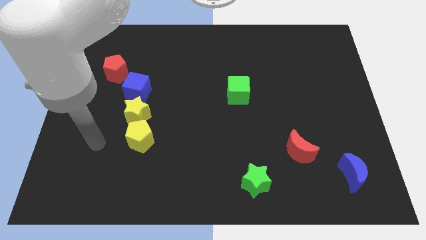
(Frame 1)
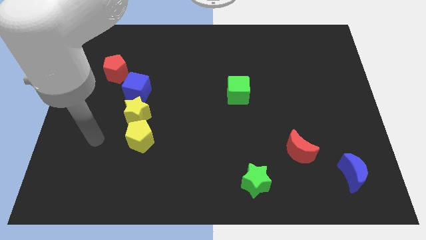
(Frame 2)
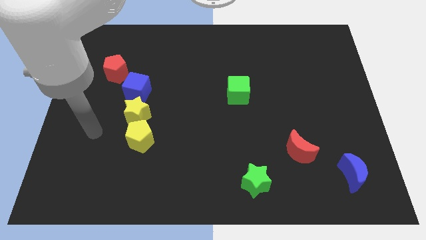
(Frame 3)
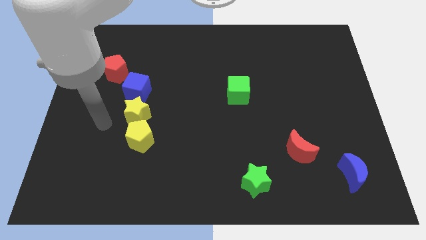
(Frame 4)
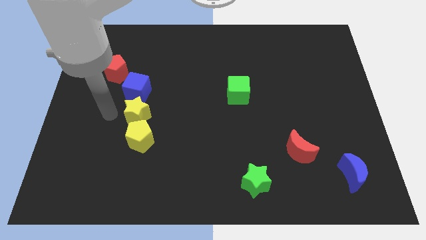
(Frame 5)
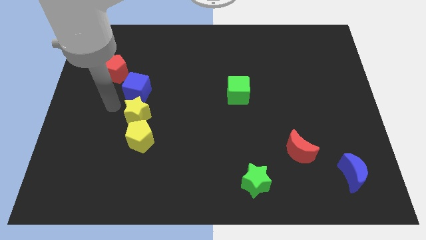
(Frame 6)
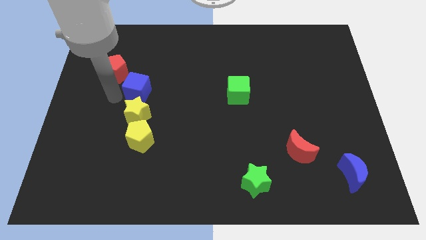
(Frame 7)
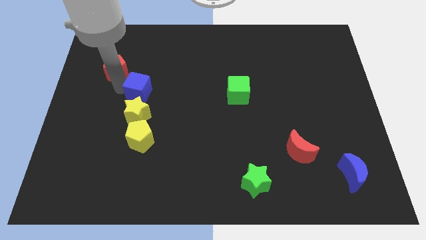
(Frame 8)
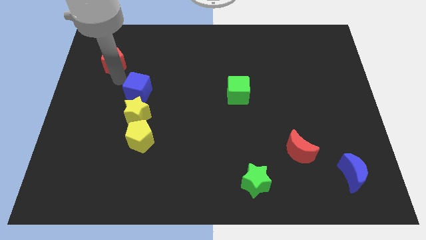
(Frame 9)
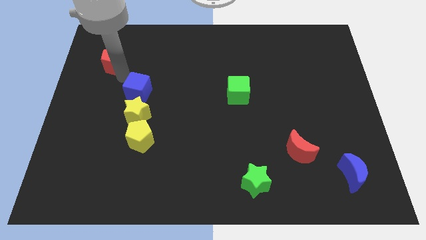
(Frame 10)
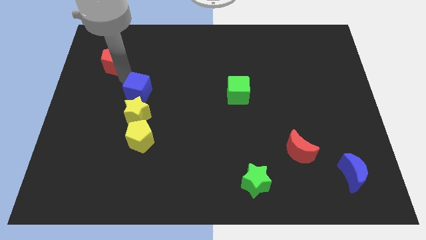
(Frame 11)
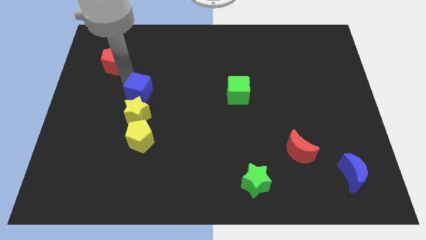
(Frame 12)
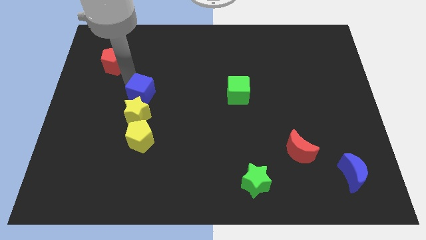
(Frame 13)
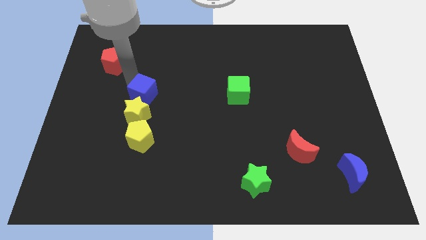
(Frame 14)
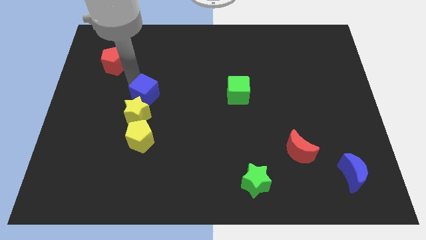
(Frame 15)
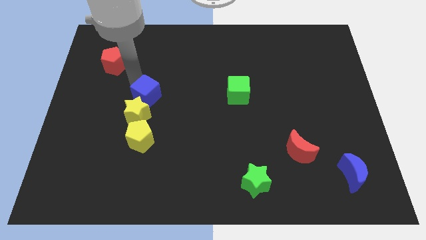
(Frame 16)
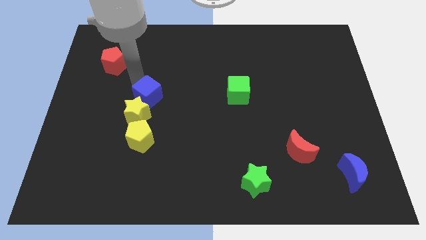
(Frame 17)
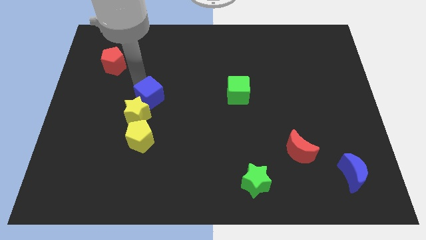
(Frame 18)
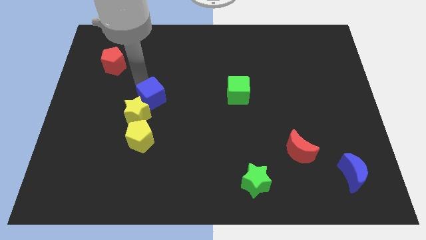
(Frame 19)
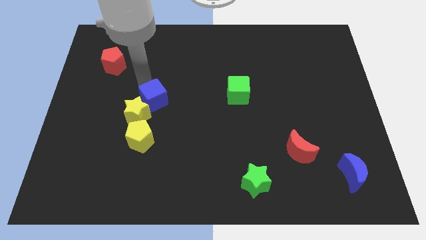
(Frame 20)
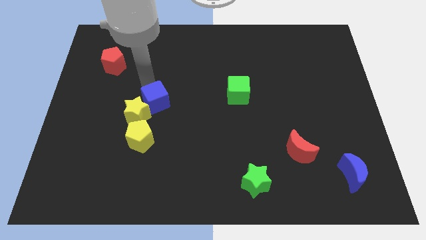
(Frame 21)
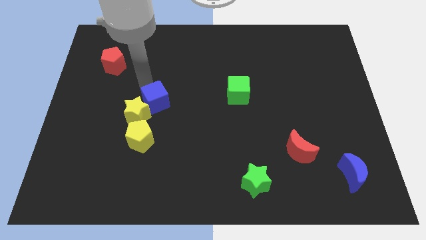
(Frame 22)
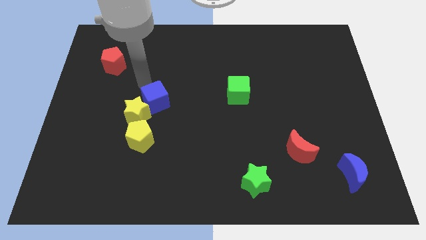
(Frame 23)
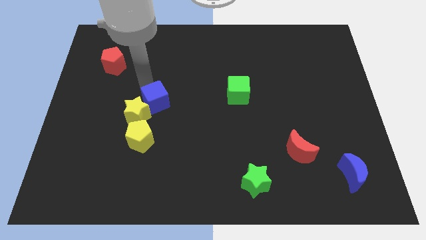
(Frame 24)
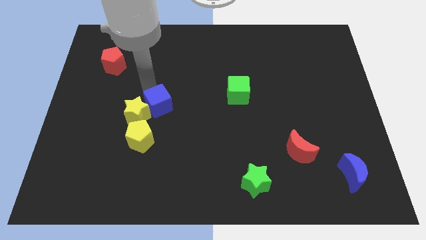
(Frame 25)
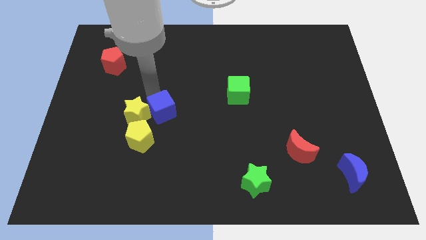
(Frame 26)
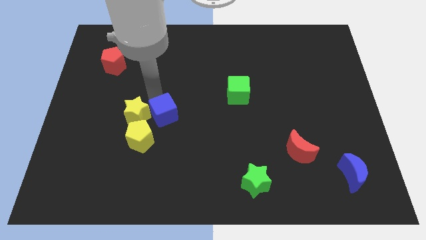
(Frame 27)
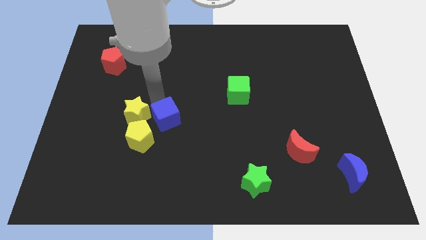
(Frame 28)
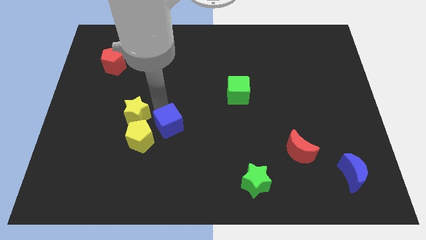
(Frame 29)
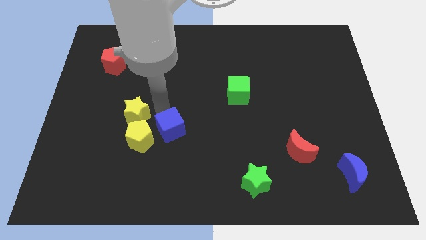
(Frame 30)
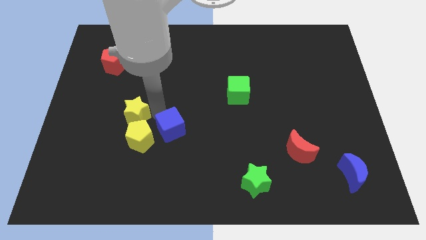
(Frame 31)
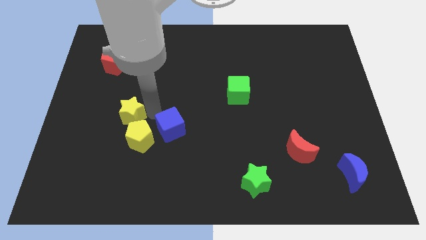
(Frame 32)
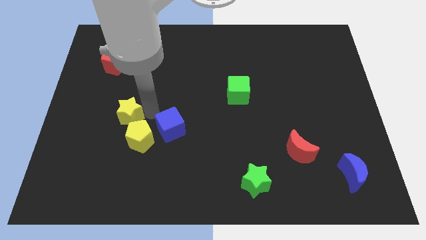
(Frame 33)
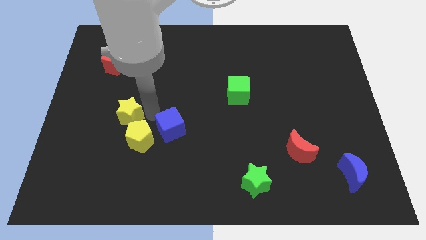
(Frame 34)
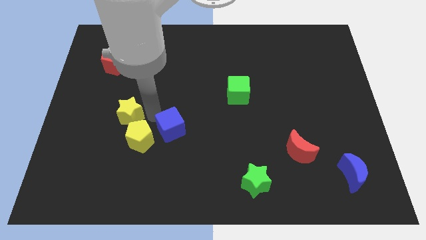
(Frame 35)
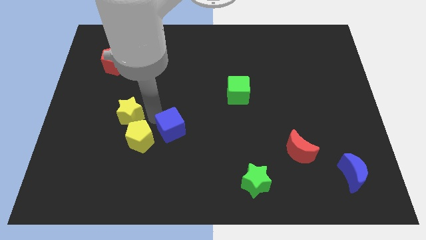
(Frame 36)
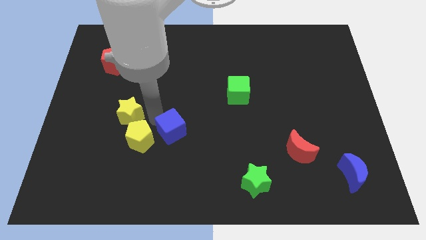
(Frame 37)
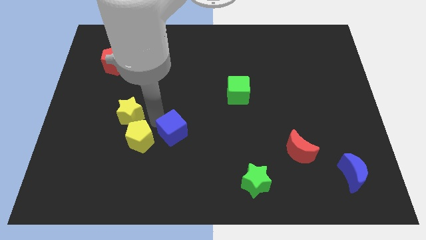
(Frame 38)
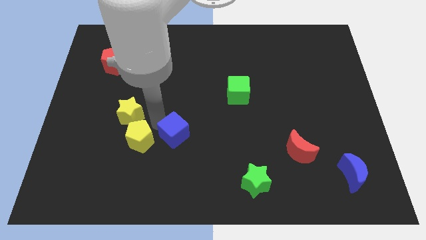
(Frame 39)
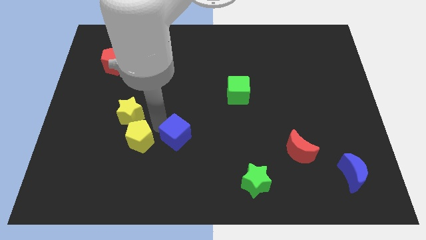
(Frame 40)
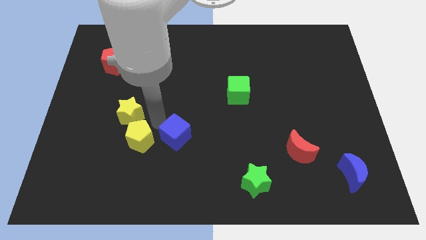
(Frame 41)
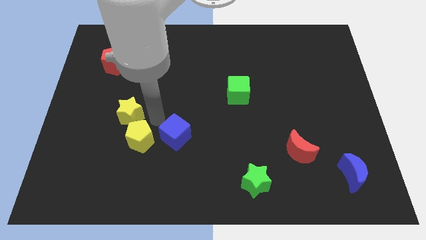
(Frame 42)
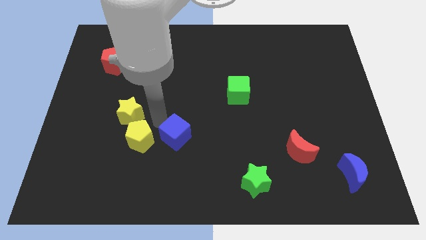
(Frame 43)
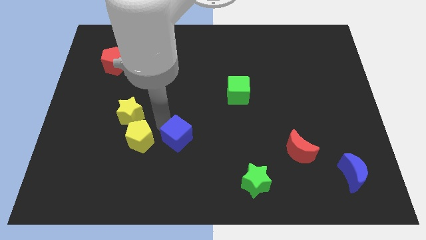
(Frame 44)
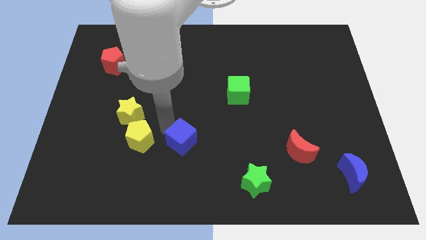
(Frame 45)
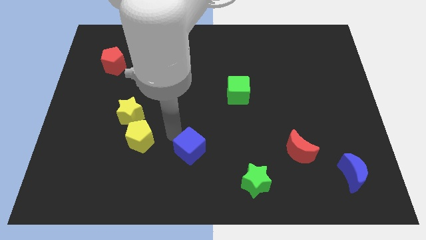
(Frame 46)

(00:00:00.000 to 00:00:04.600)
slide the blue cube downwards and to the right diagonally

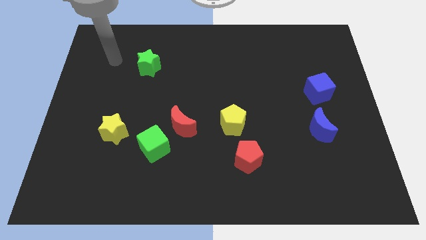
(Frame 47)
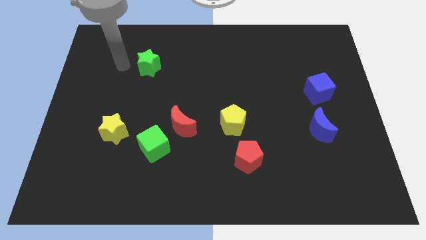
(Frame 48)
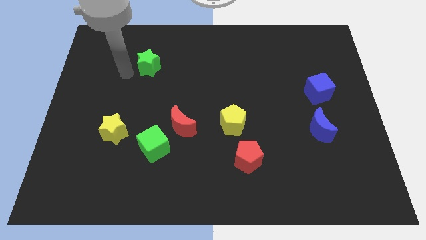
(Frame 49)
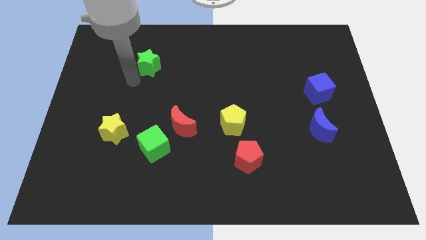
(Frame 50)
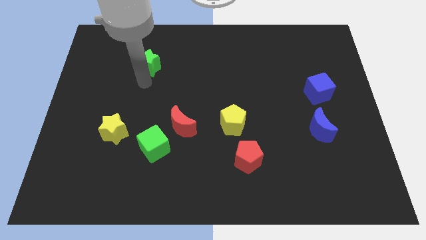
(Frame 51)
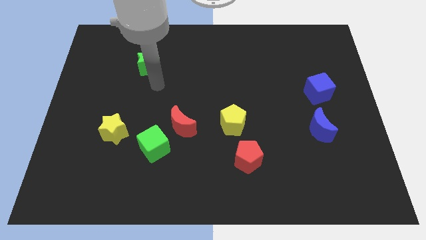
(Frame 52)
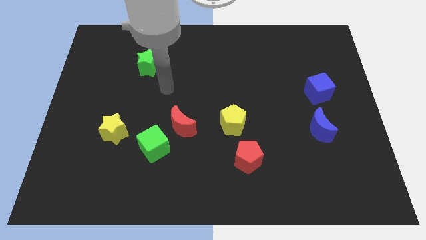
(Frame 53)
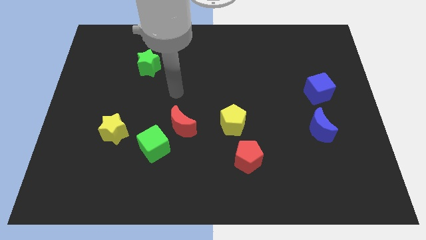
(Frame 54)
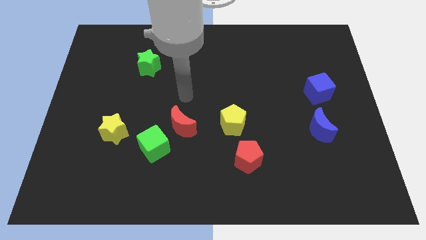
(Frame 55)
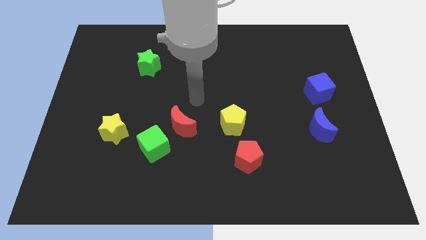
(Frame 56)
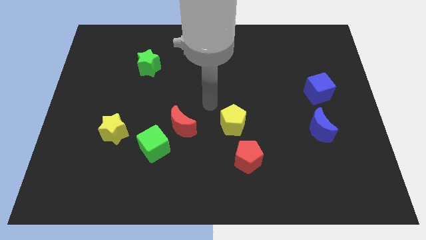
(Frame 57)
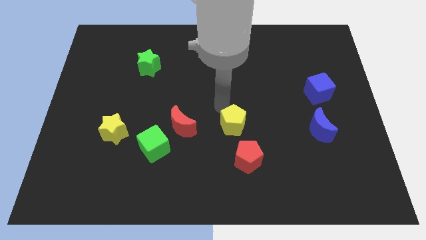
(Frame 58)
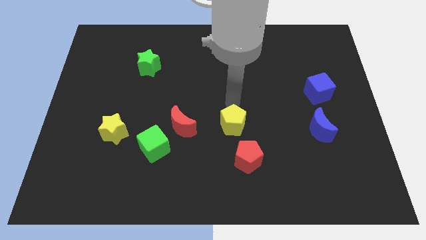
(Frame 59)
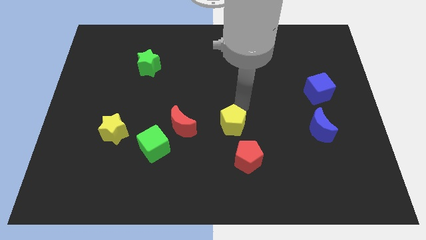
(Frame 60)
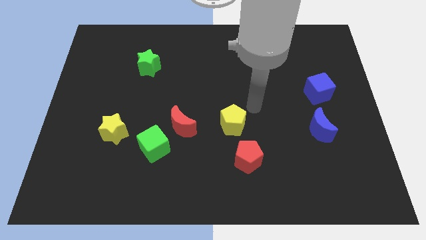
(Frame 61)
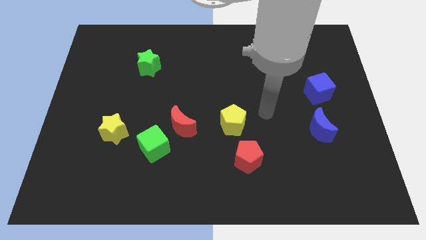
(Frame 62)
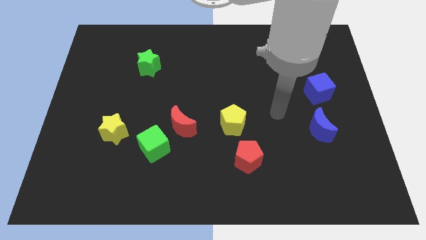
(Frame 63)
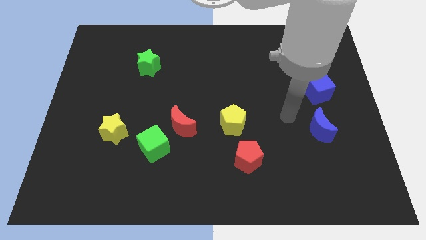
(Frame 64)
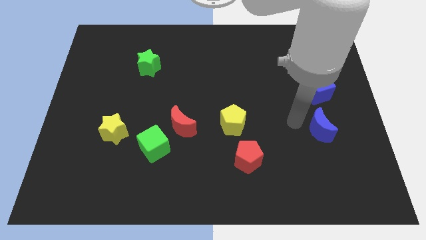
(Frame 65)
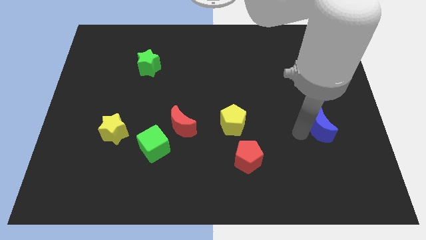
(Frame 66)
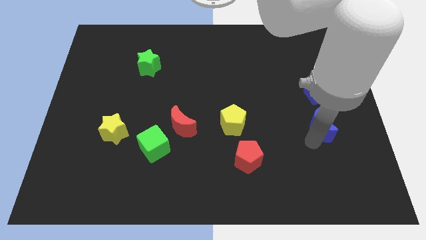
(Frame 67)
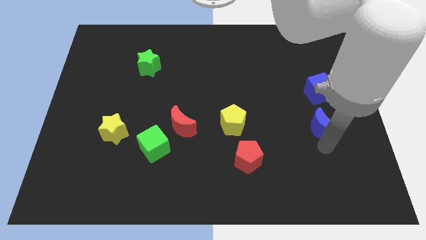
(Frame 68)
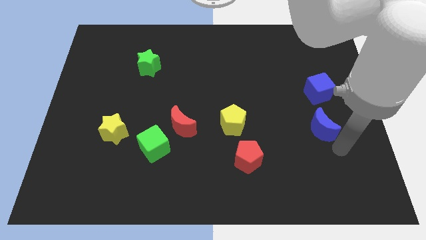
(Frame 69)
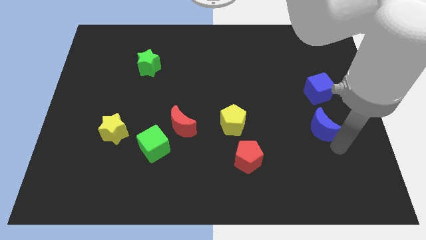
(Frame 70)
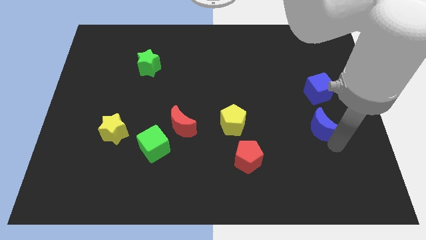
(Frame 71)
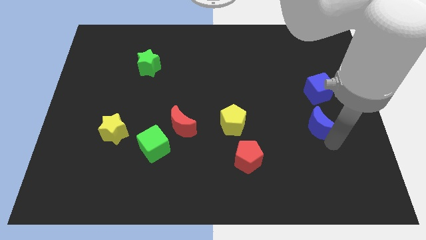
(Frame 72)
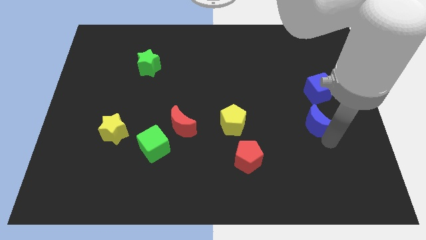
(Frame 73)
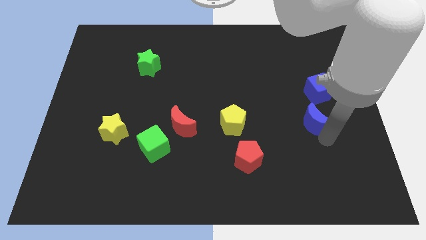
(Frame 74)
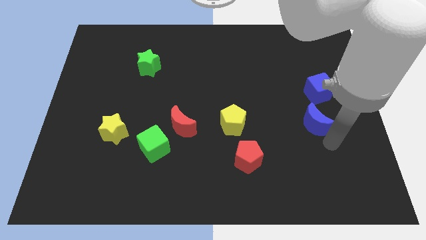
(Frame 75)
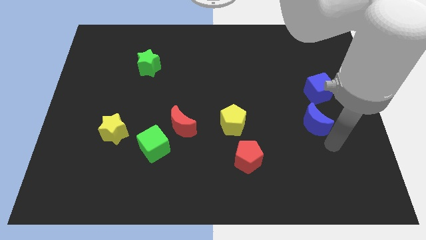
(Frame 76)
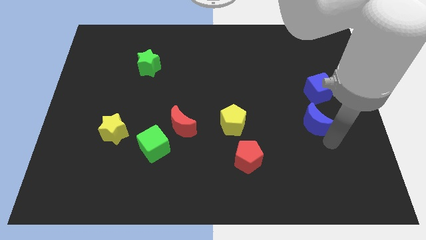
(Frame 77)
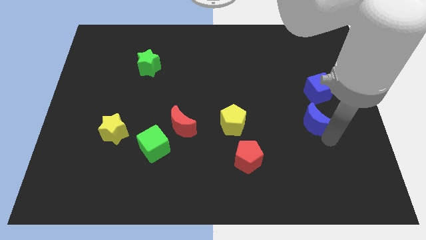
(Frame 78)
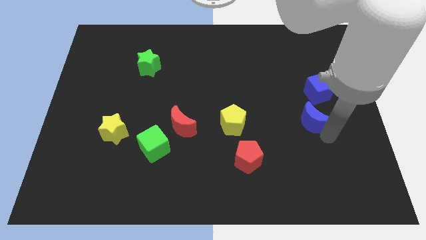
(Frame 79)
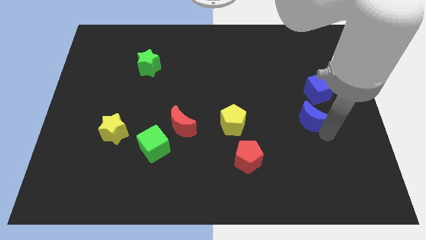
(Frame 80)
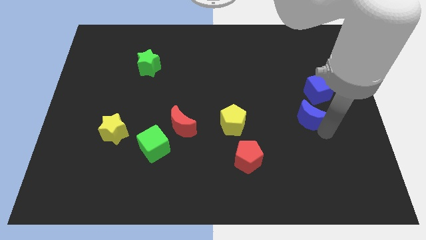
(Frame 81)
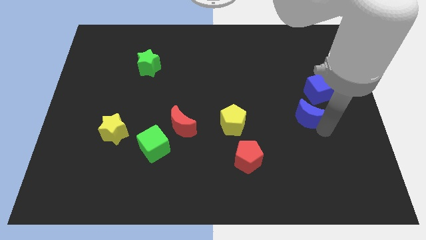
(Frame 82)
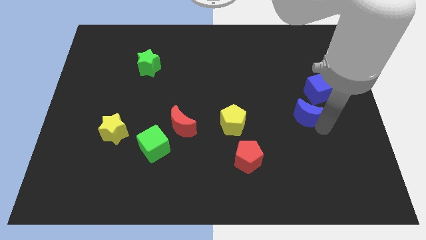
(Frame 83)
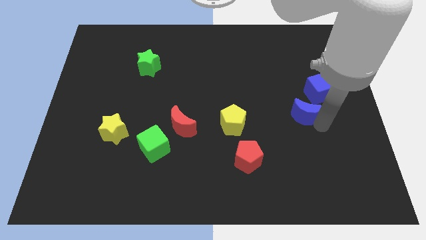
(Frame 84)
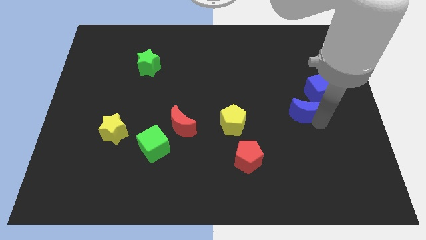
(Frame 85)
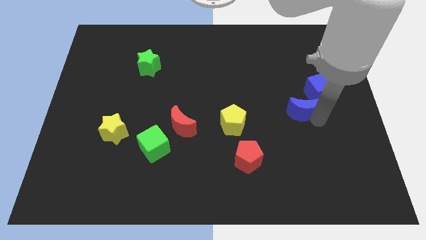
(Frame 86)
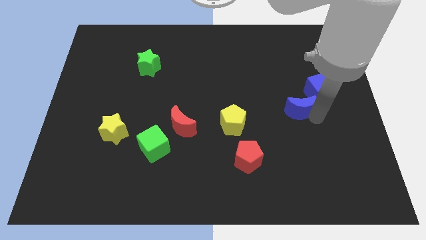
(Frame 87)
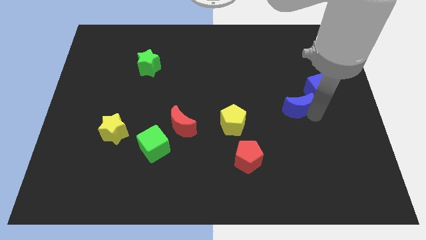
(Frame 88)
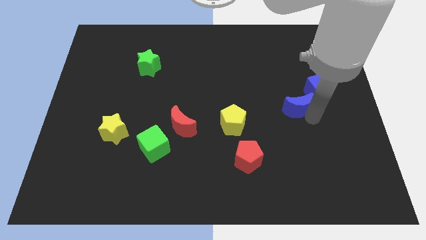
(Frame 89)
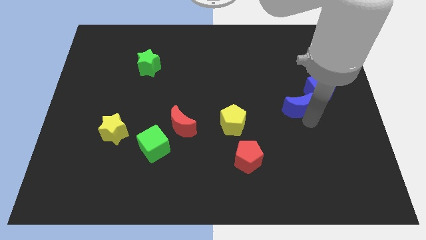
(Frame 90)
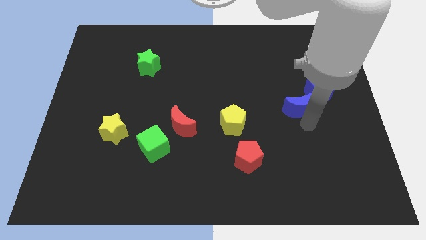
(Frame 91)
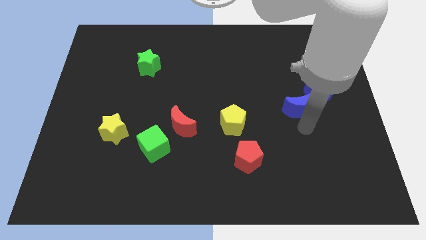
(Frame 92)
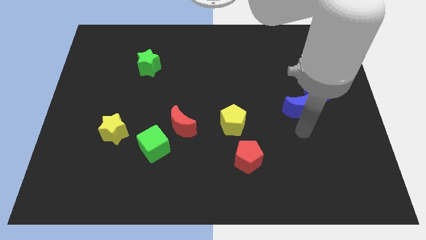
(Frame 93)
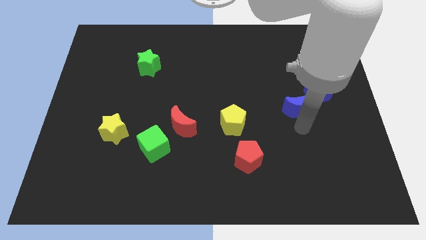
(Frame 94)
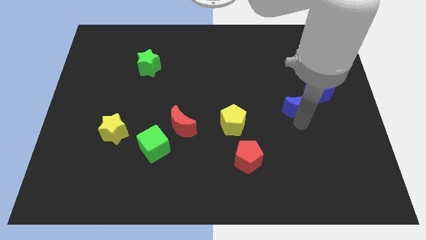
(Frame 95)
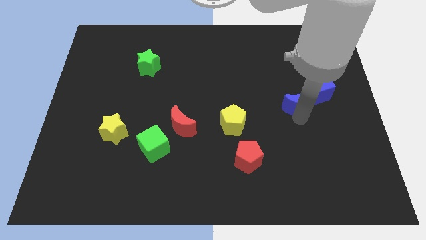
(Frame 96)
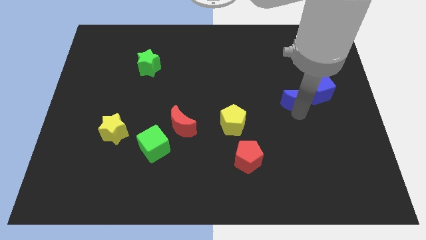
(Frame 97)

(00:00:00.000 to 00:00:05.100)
slide the blue moon a little bit up
